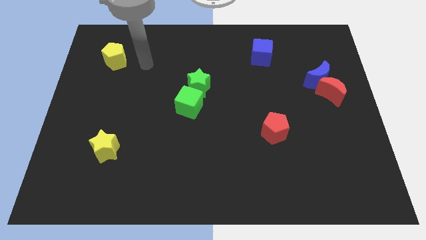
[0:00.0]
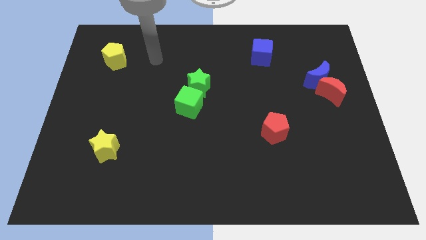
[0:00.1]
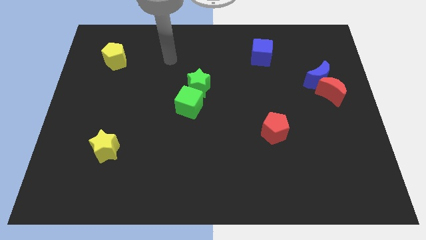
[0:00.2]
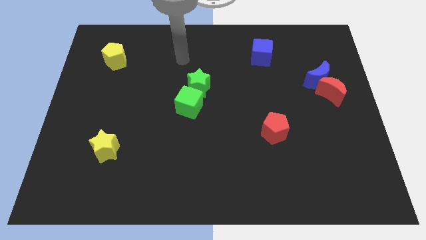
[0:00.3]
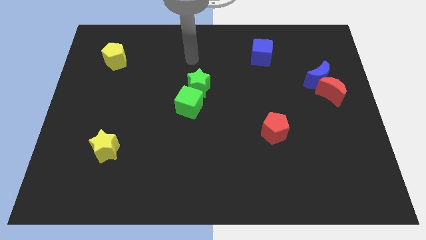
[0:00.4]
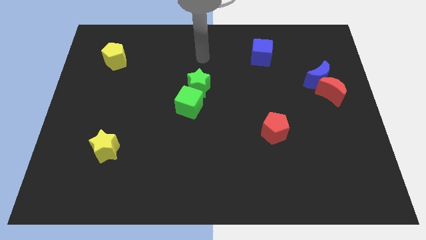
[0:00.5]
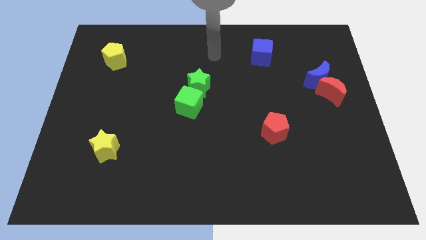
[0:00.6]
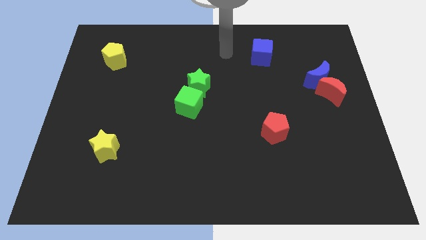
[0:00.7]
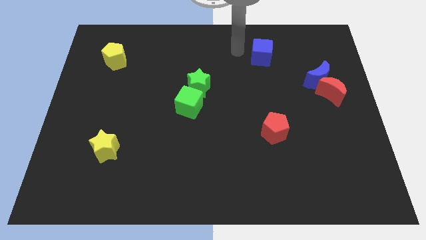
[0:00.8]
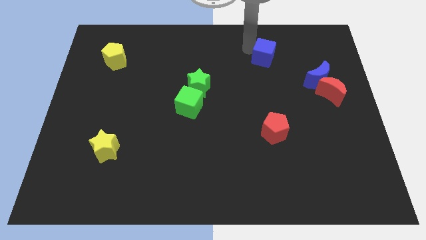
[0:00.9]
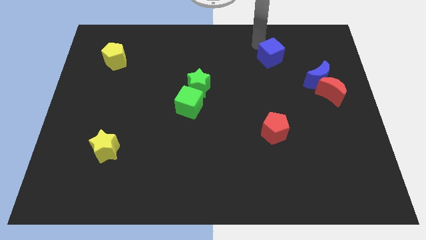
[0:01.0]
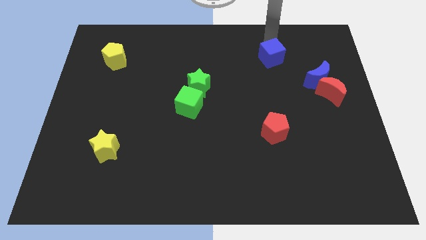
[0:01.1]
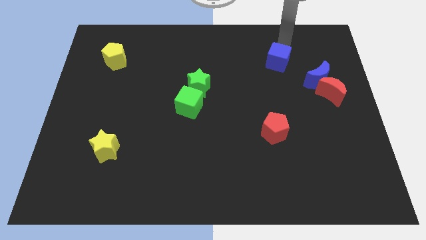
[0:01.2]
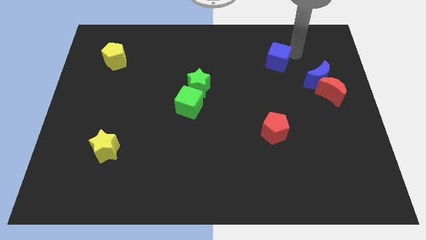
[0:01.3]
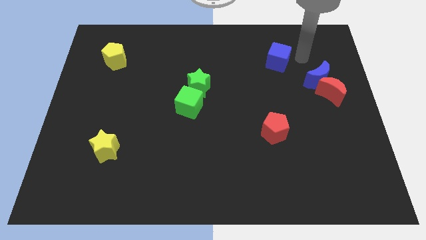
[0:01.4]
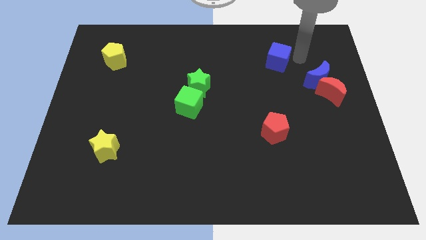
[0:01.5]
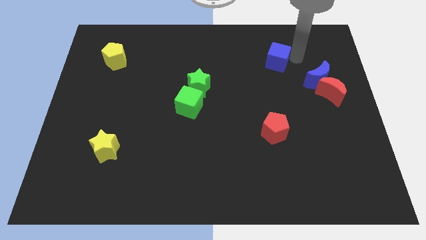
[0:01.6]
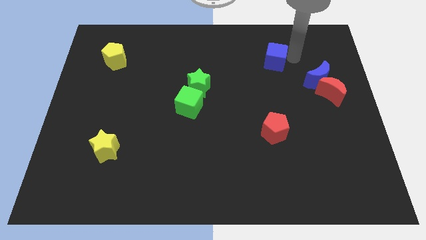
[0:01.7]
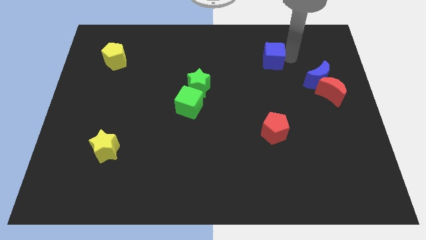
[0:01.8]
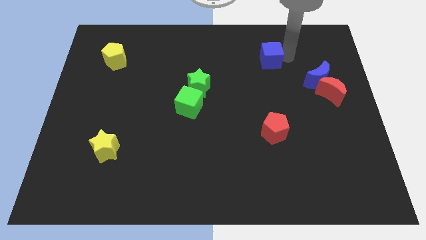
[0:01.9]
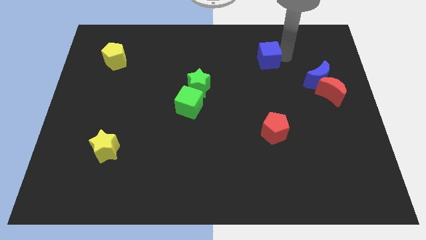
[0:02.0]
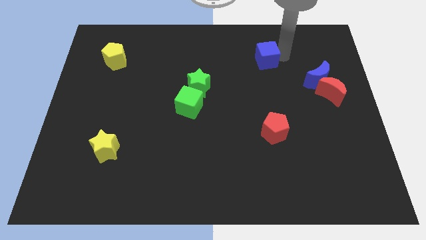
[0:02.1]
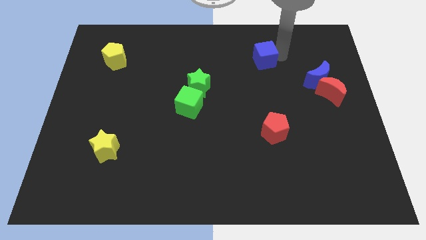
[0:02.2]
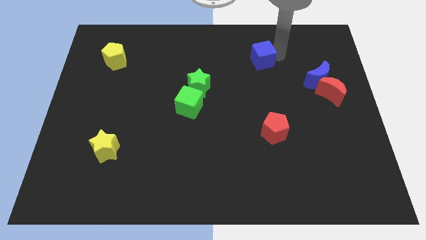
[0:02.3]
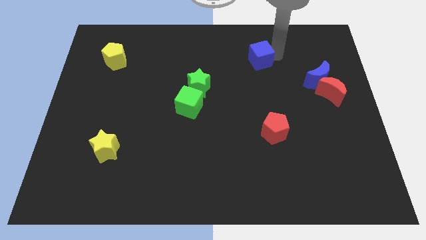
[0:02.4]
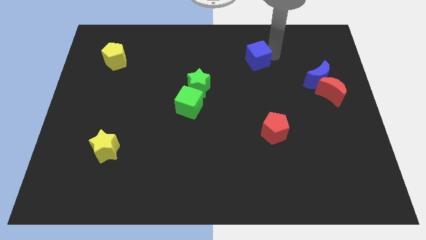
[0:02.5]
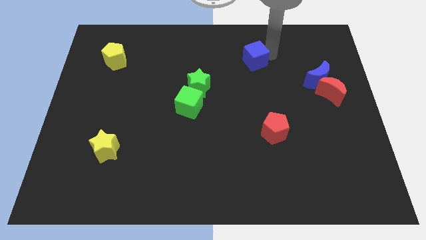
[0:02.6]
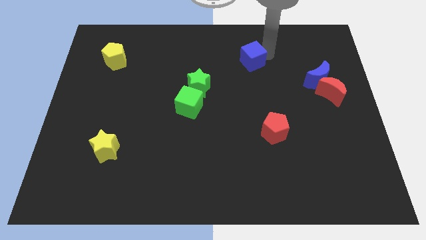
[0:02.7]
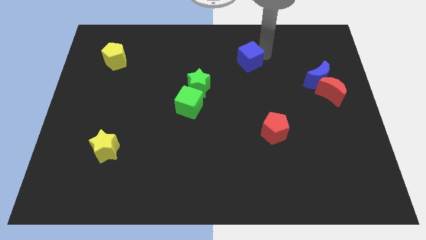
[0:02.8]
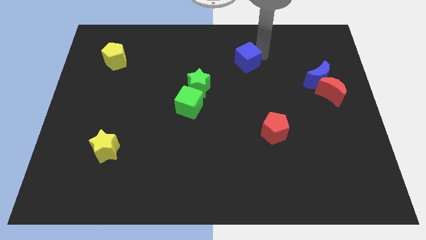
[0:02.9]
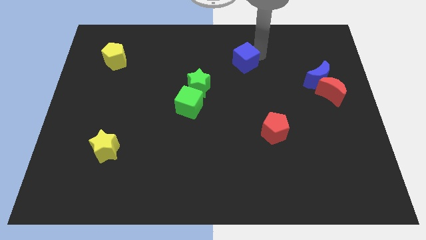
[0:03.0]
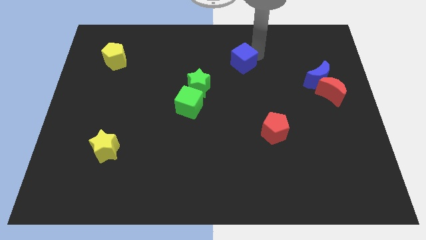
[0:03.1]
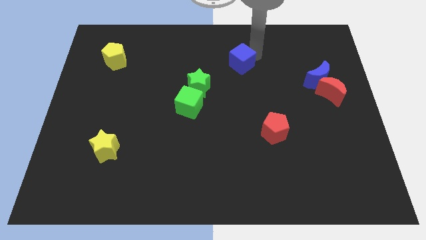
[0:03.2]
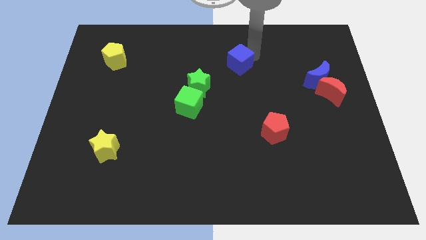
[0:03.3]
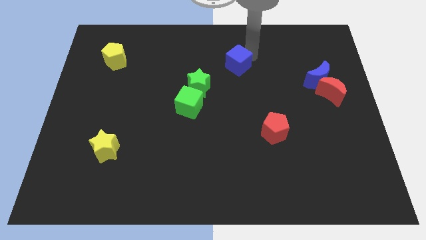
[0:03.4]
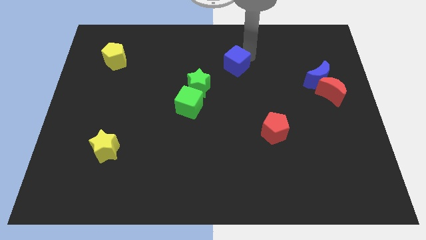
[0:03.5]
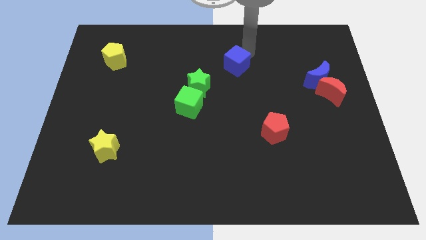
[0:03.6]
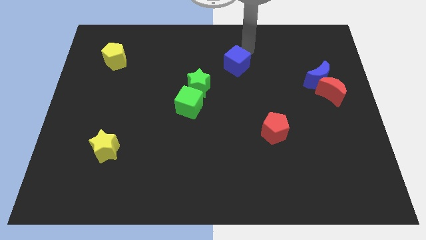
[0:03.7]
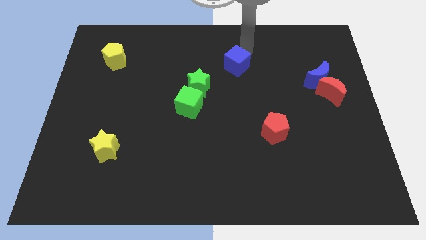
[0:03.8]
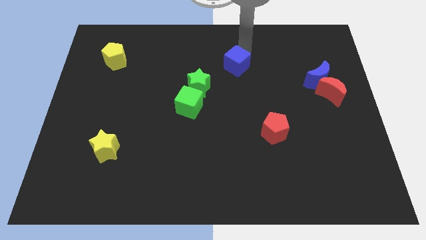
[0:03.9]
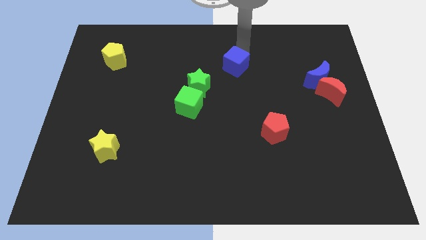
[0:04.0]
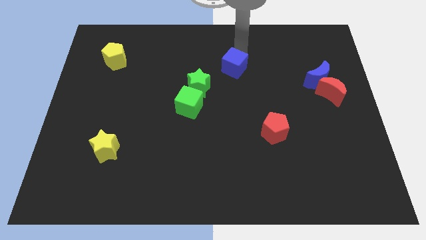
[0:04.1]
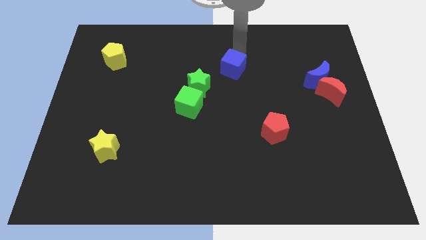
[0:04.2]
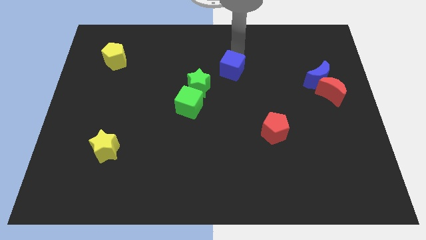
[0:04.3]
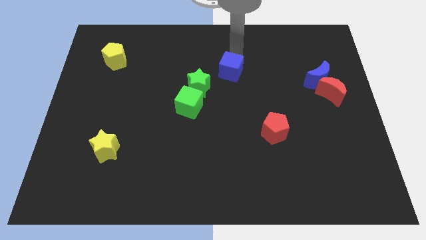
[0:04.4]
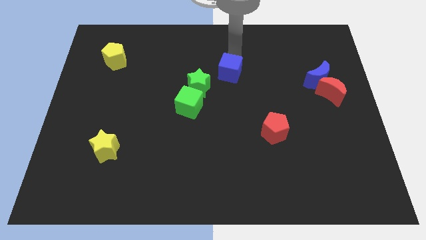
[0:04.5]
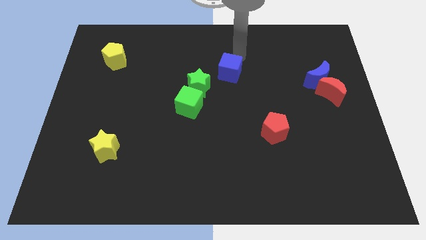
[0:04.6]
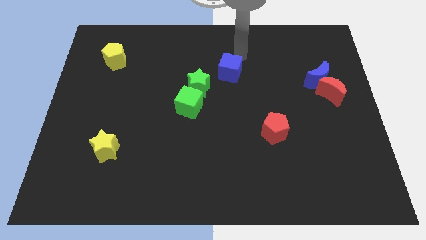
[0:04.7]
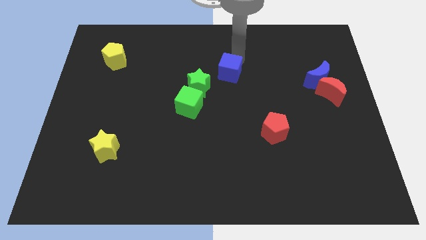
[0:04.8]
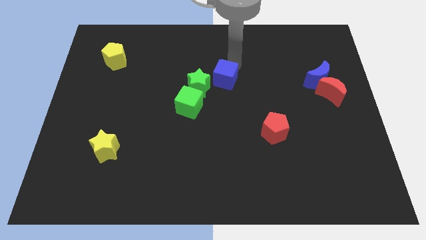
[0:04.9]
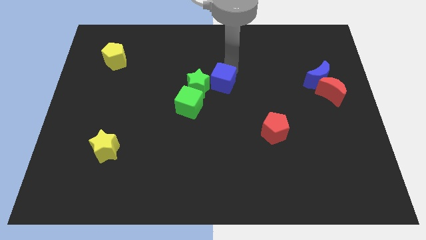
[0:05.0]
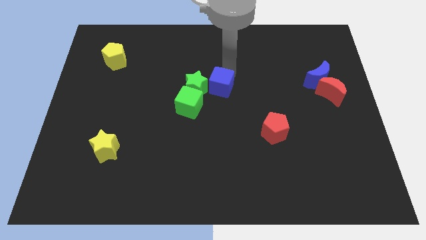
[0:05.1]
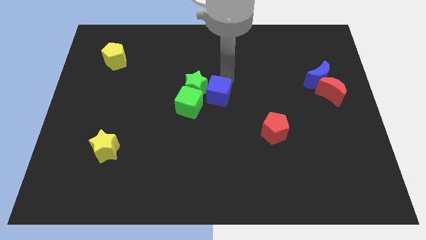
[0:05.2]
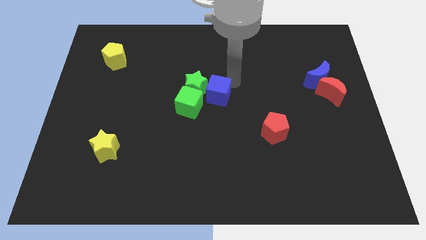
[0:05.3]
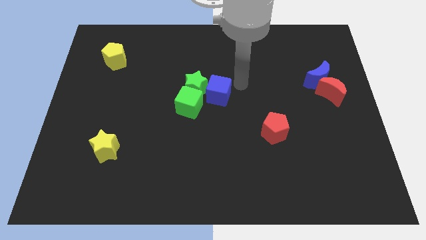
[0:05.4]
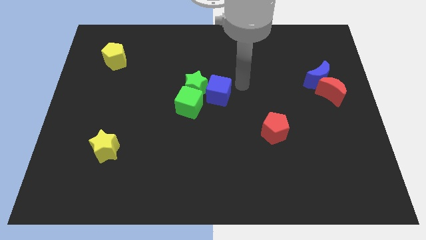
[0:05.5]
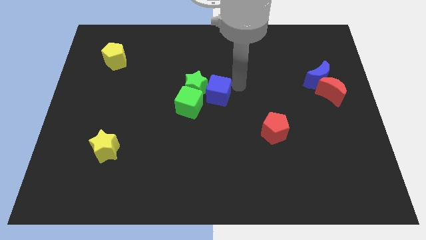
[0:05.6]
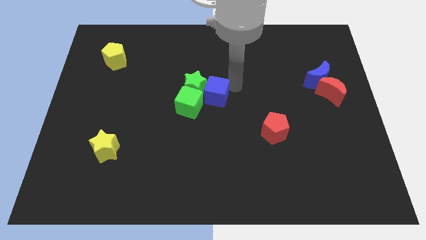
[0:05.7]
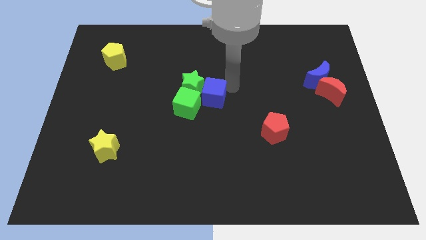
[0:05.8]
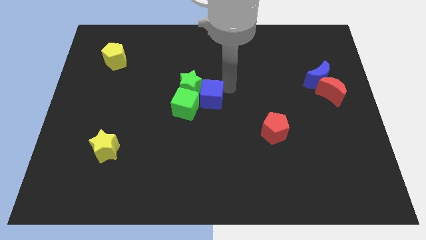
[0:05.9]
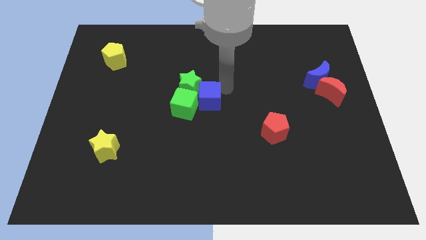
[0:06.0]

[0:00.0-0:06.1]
slide the blue cube close to the green cube

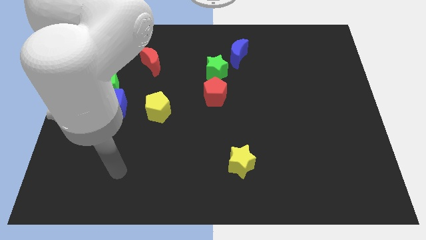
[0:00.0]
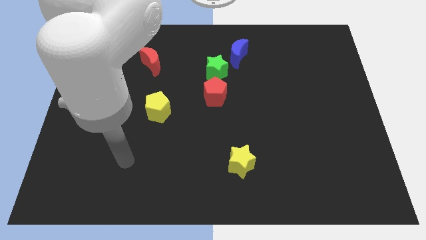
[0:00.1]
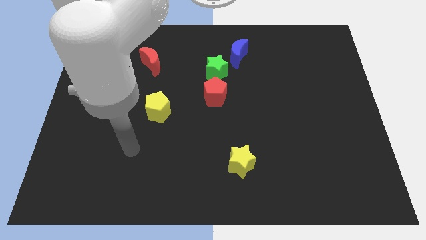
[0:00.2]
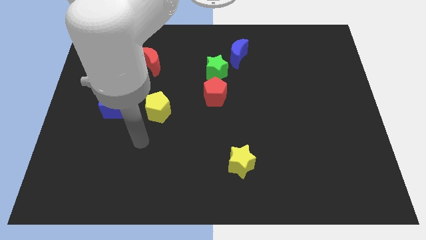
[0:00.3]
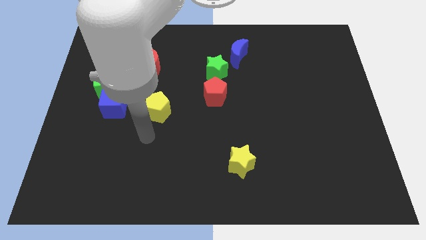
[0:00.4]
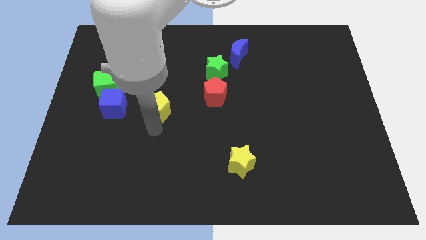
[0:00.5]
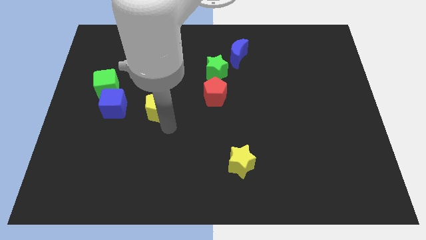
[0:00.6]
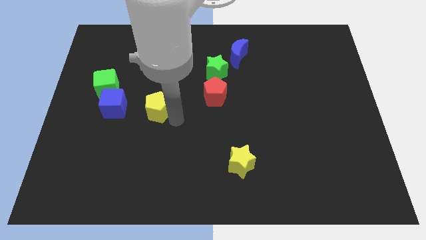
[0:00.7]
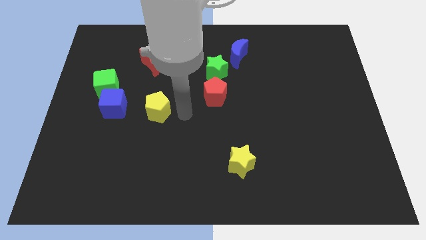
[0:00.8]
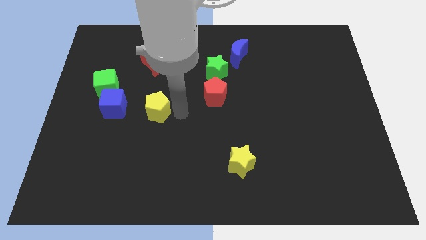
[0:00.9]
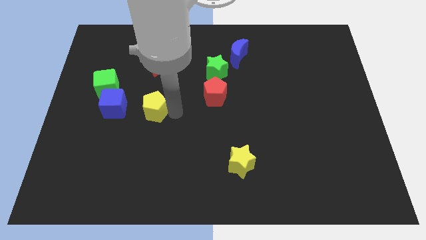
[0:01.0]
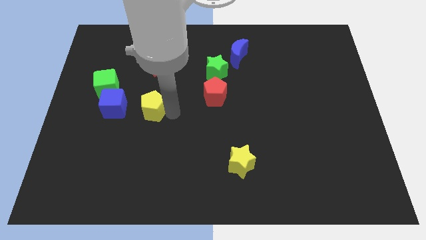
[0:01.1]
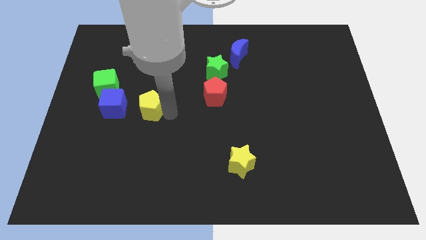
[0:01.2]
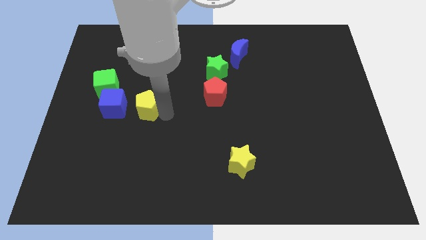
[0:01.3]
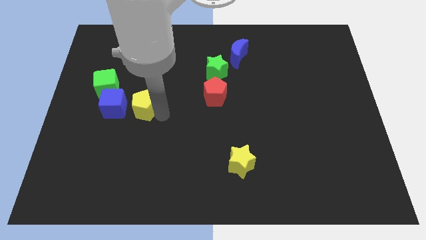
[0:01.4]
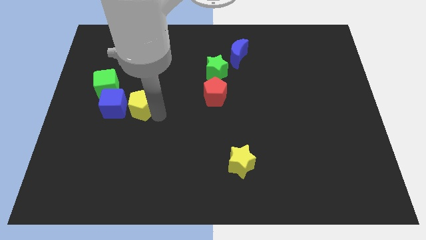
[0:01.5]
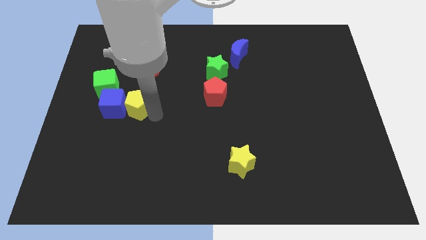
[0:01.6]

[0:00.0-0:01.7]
move the yellow pentagon to the blue cube
